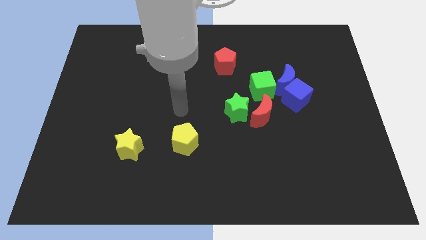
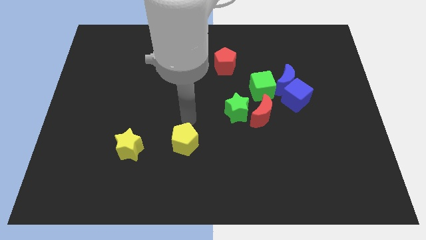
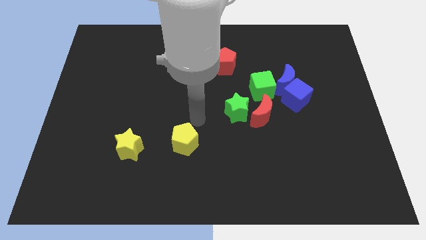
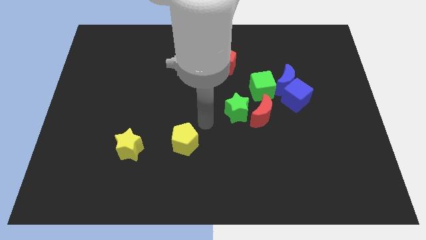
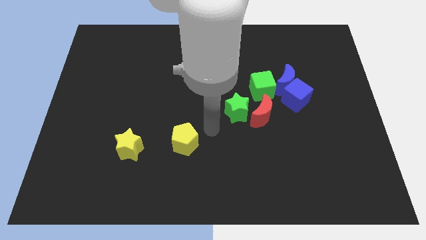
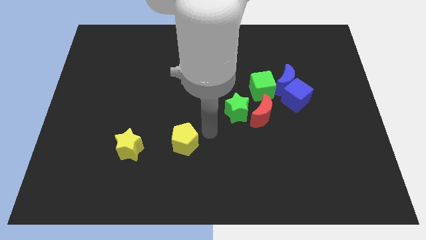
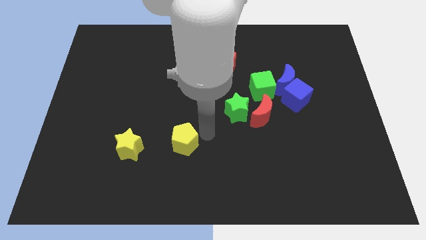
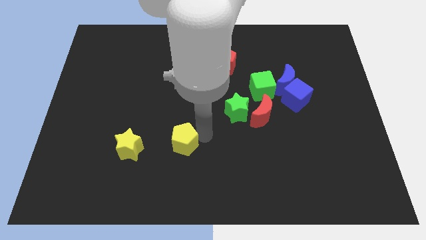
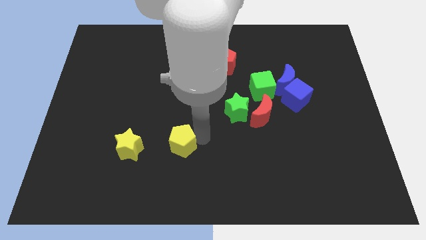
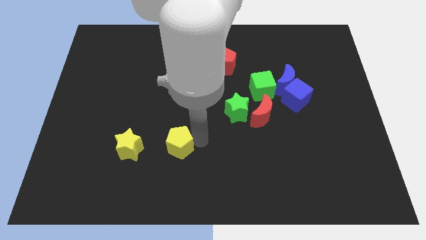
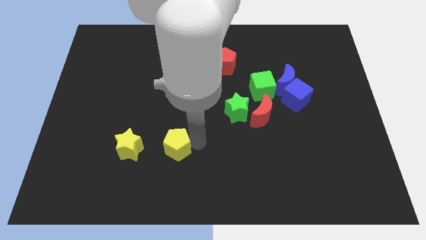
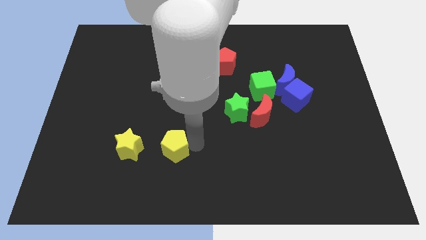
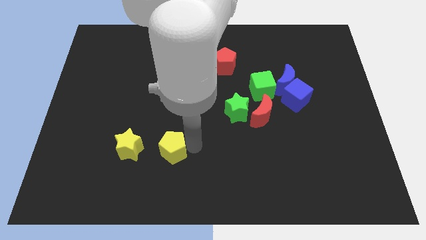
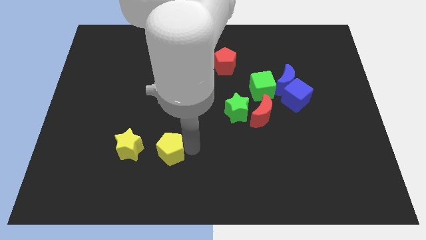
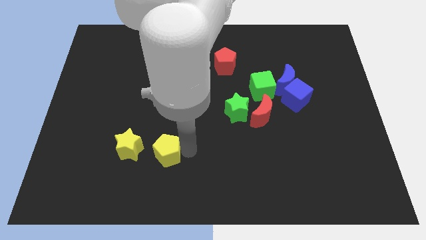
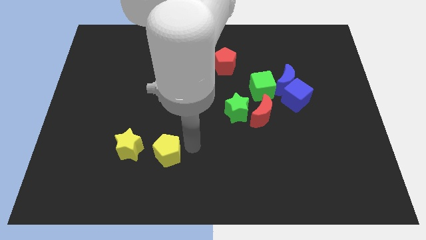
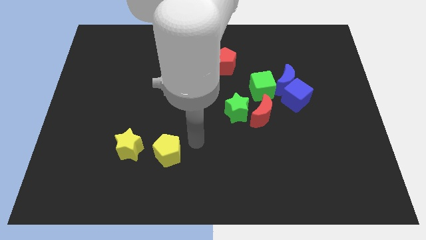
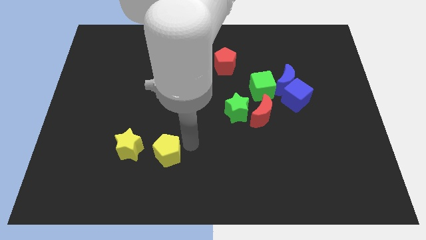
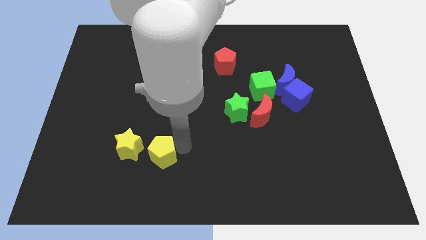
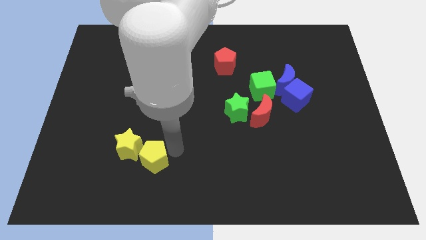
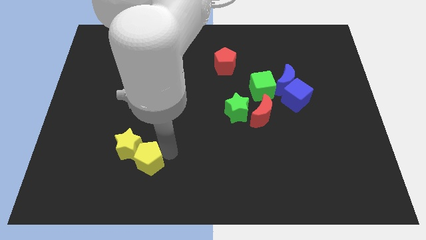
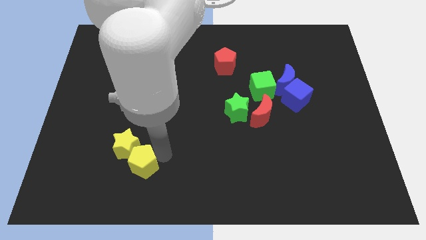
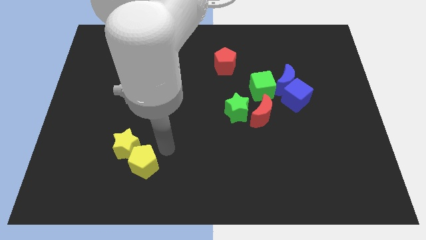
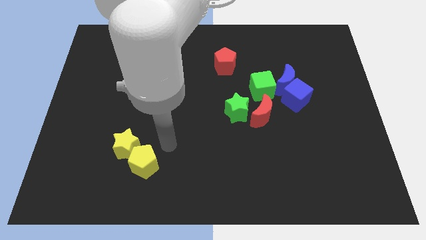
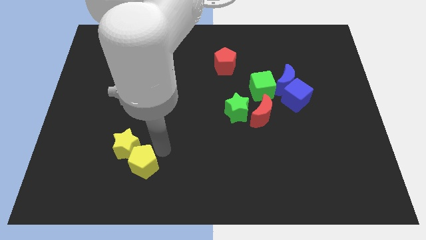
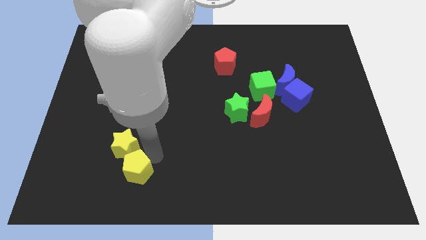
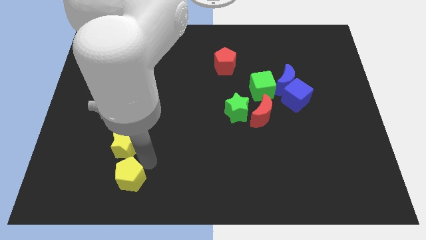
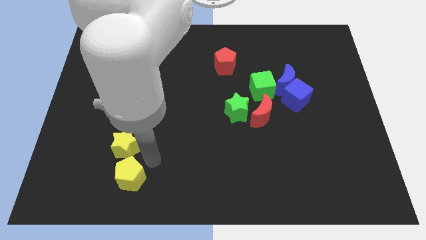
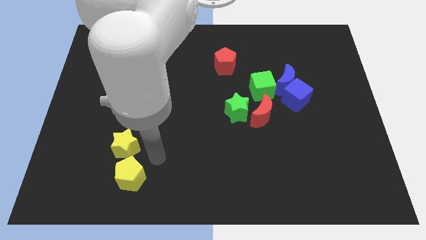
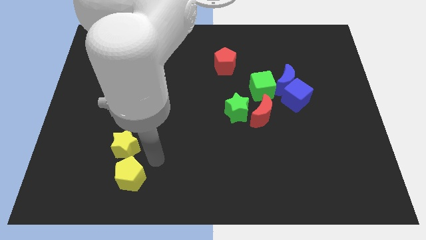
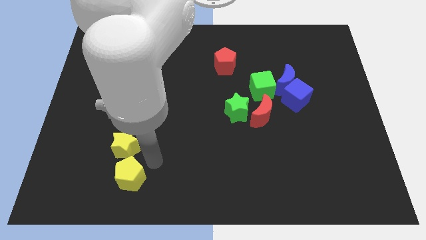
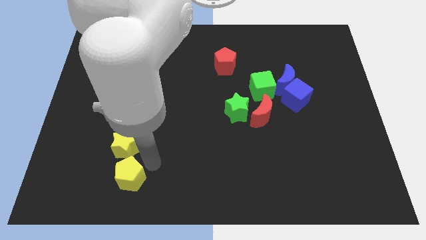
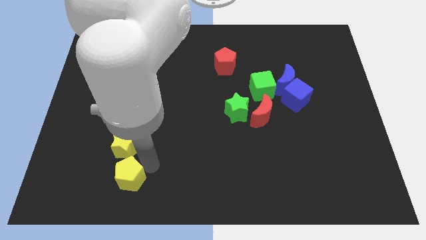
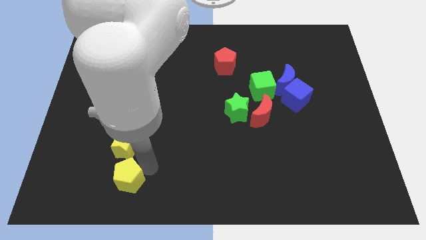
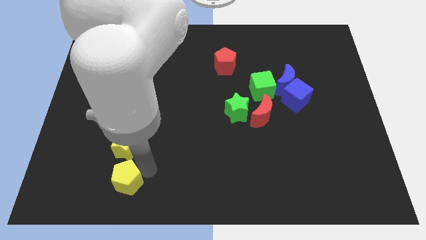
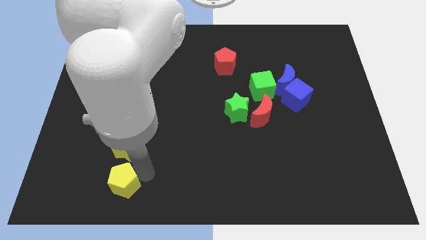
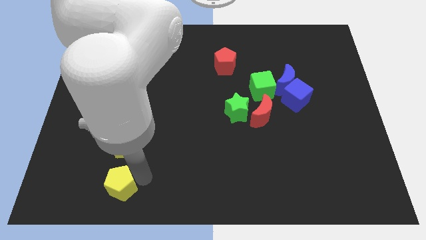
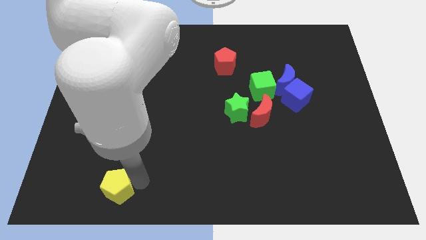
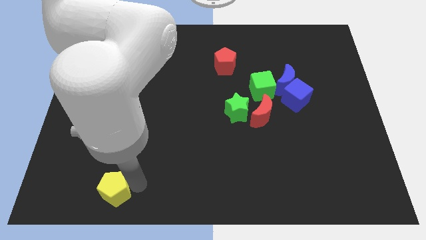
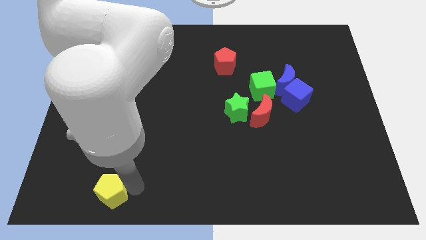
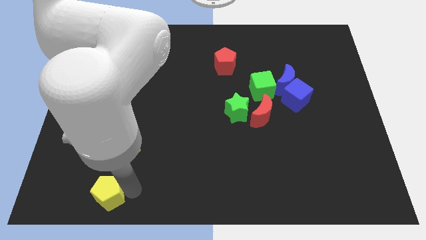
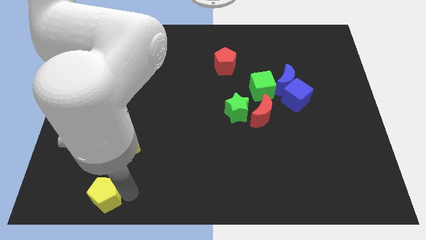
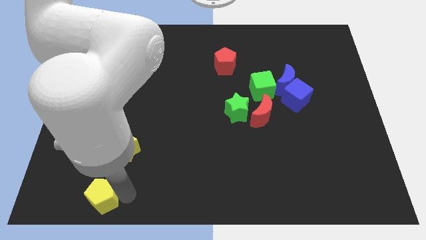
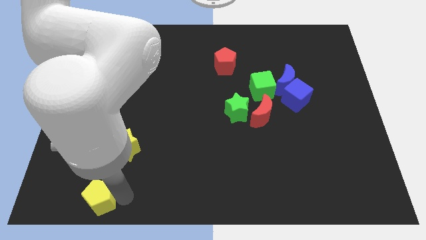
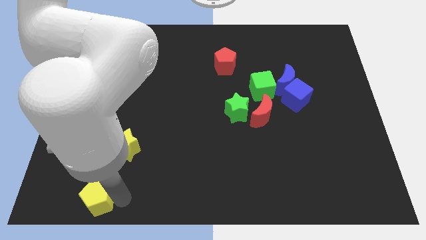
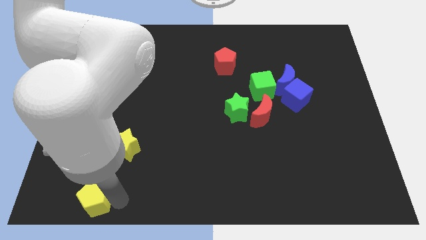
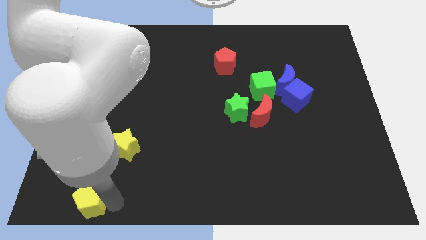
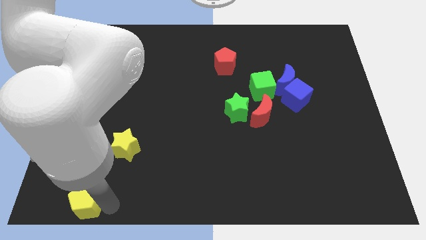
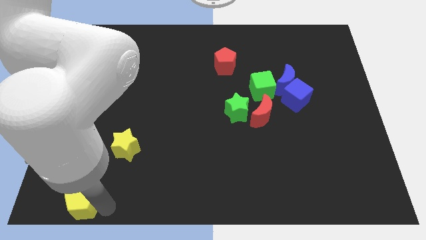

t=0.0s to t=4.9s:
move the yellow pentagon to the lower left corner

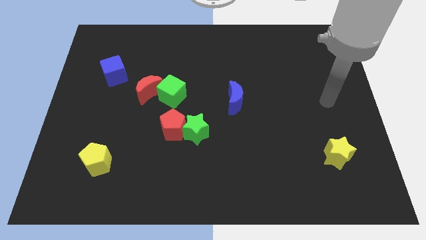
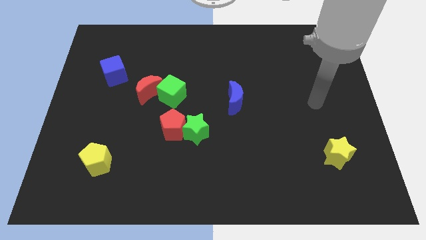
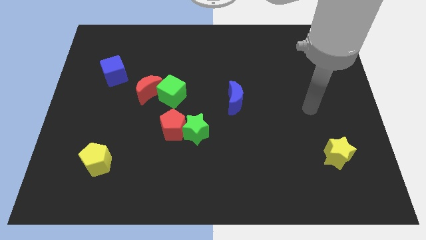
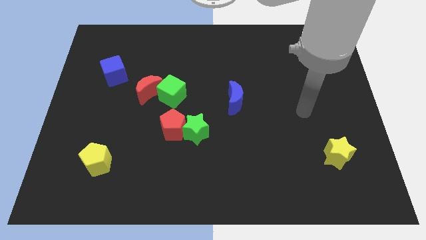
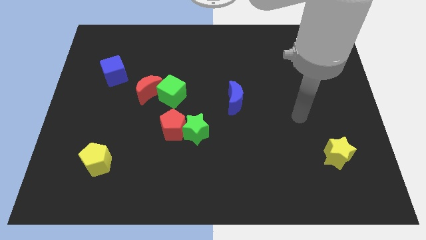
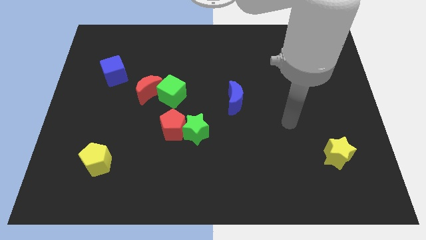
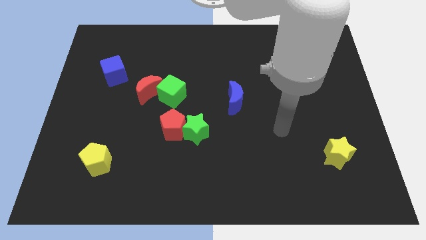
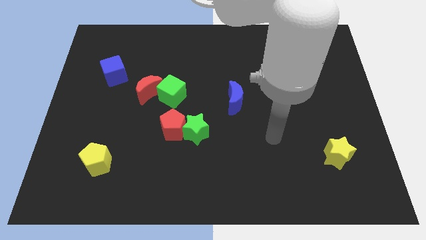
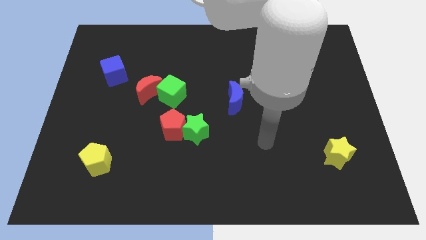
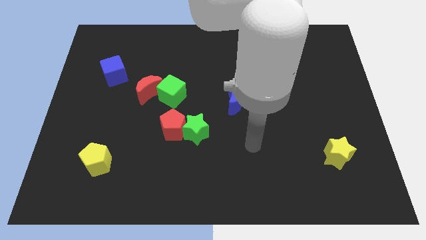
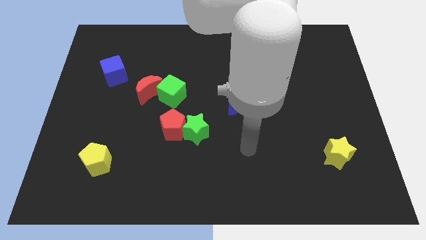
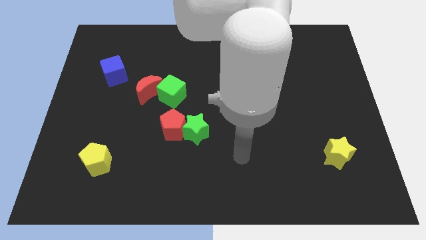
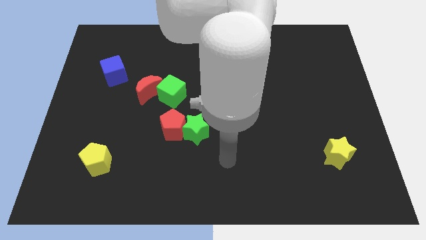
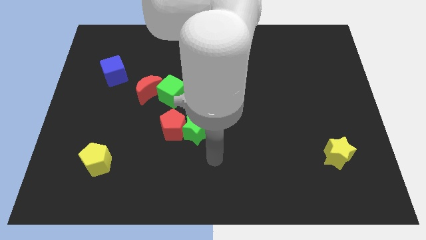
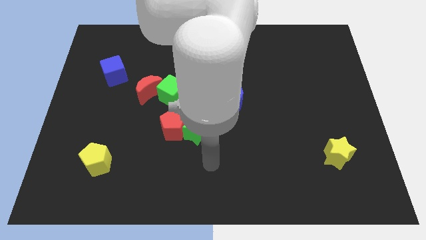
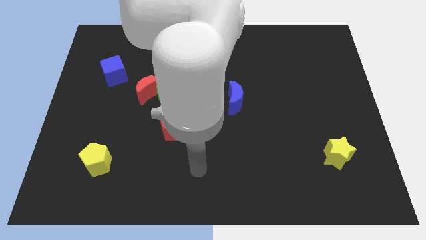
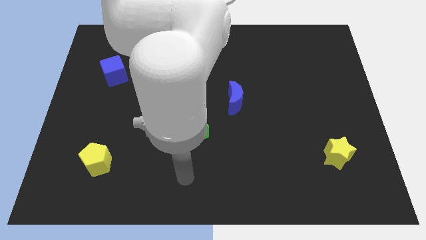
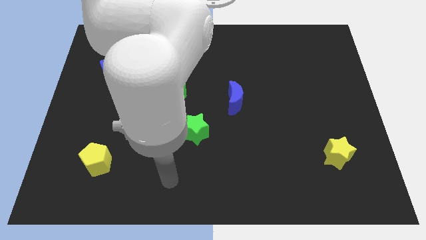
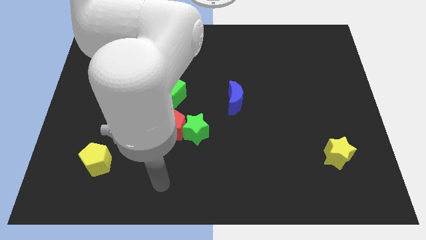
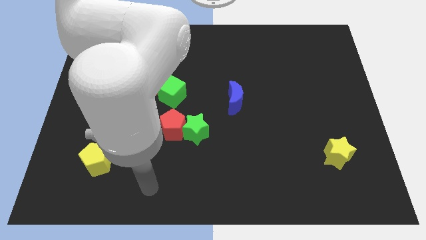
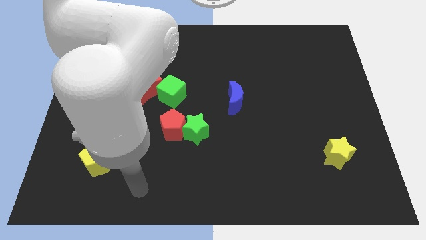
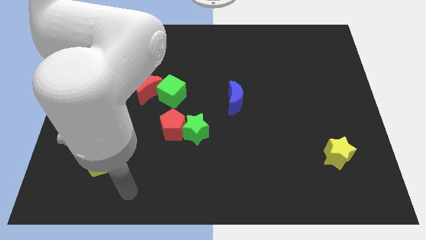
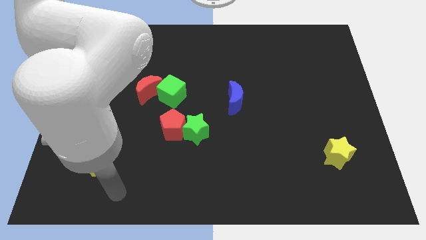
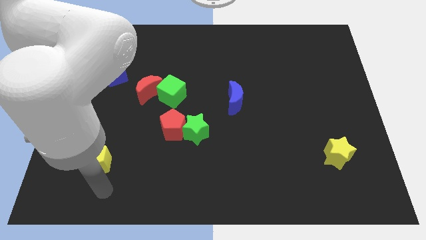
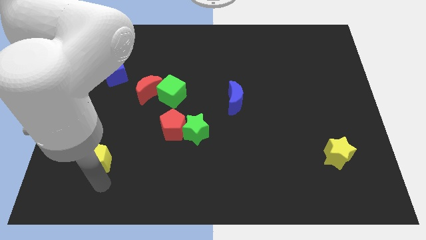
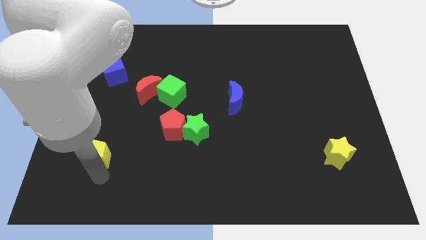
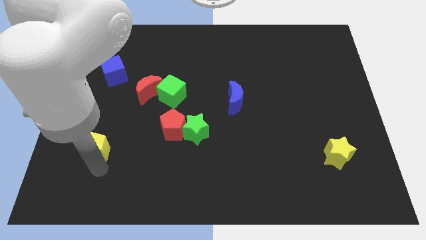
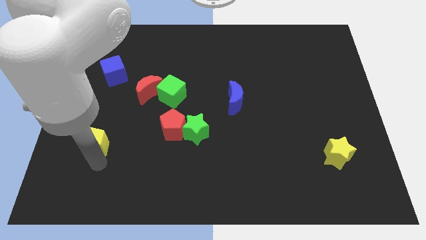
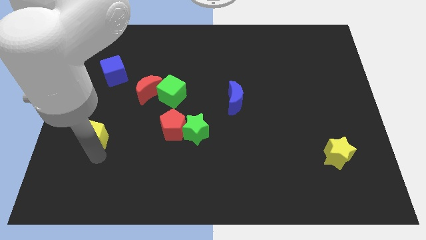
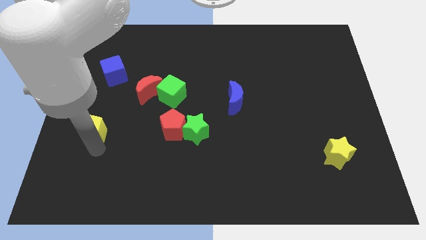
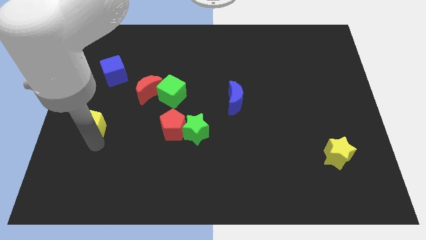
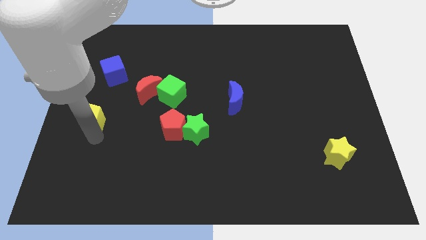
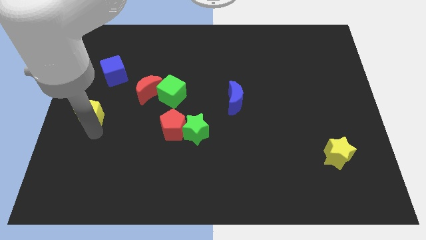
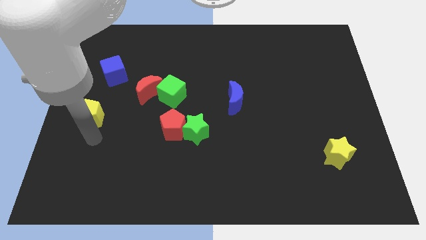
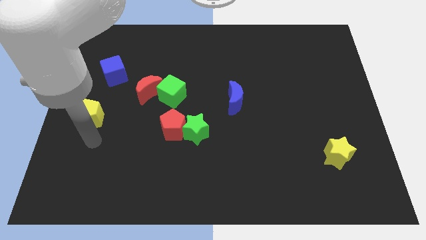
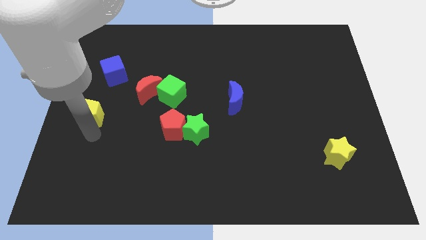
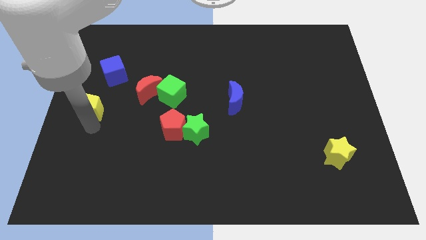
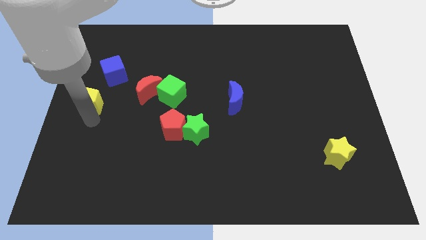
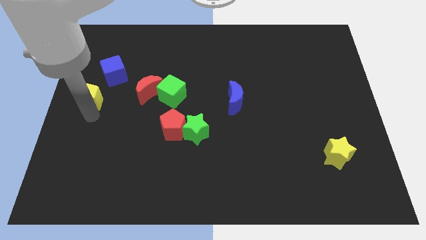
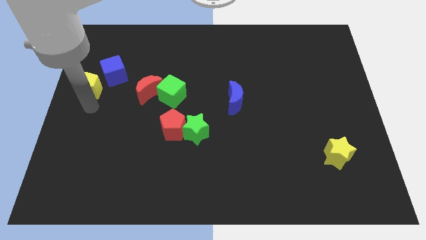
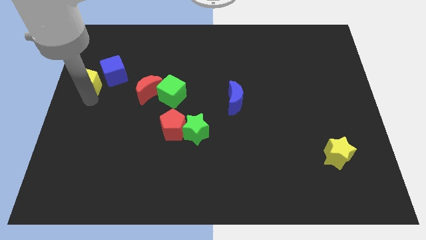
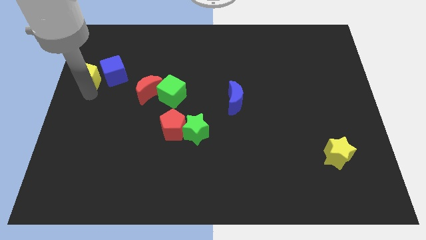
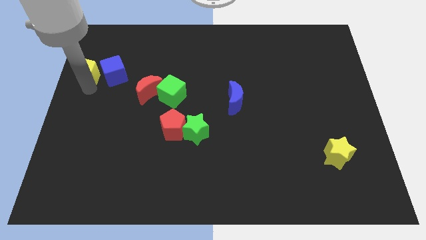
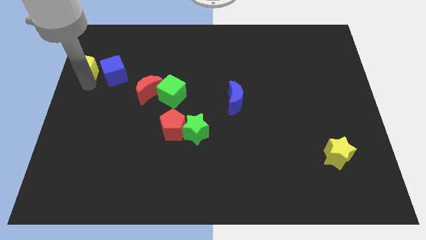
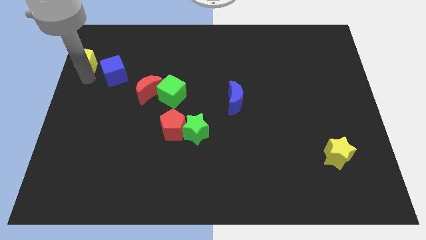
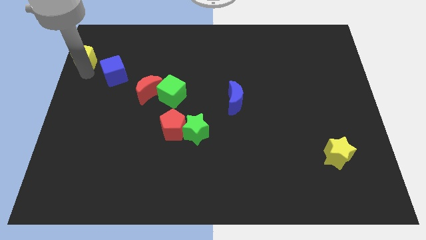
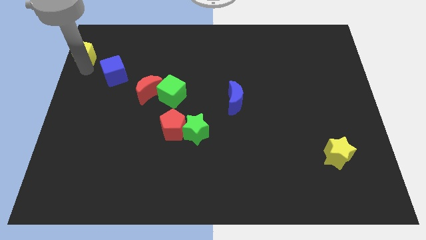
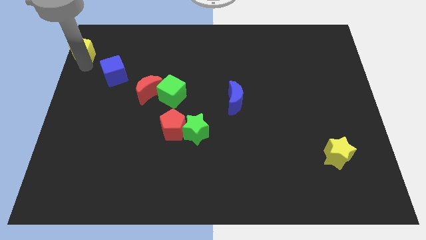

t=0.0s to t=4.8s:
slide the yellow pentagon to the top left corner
